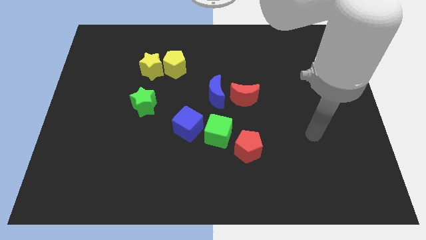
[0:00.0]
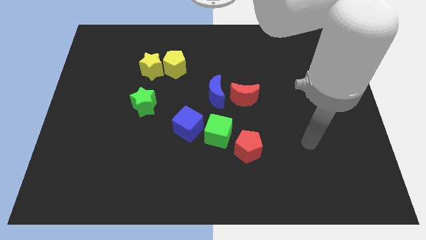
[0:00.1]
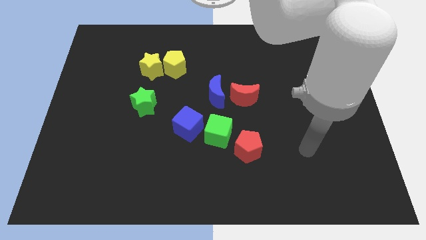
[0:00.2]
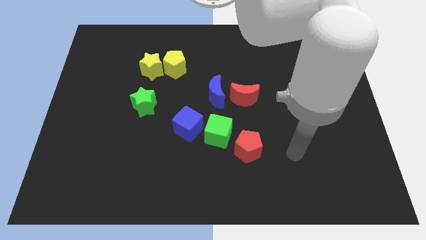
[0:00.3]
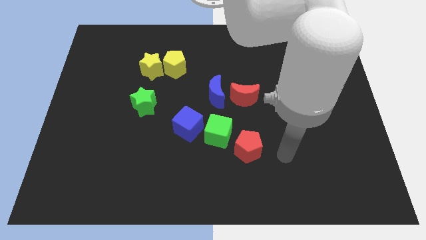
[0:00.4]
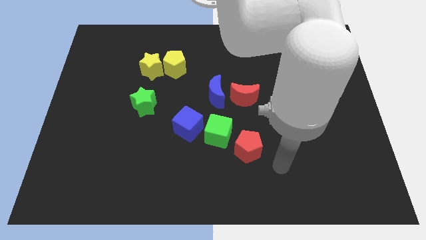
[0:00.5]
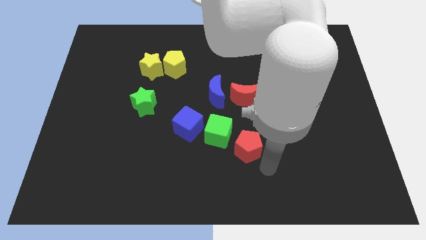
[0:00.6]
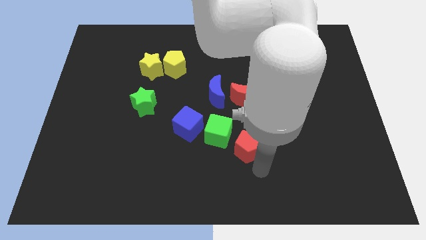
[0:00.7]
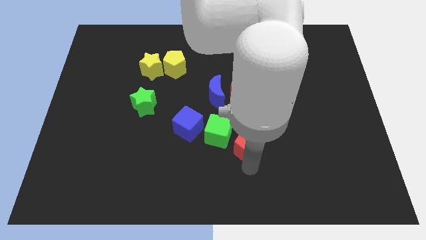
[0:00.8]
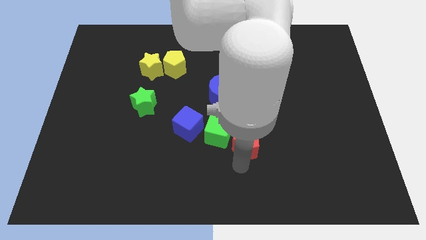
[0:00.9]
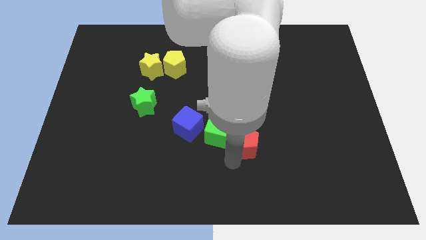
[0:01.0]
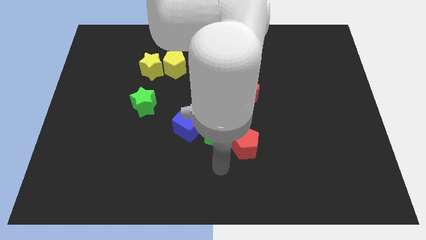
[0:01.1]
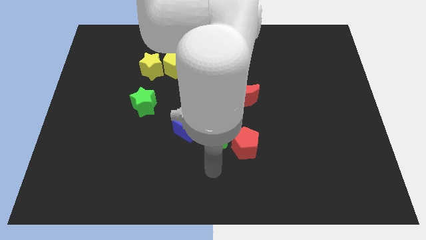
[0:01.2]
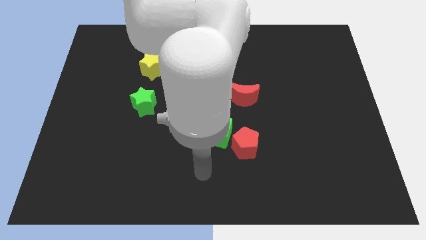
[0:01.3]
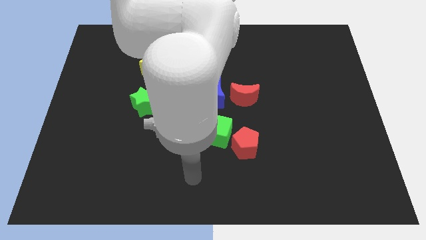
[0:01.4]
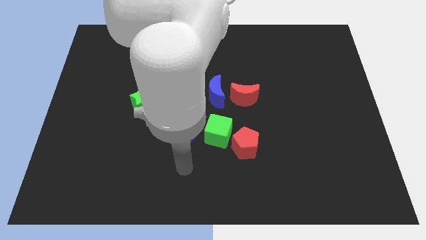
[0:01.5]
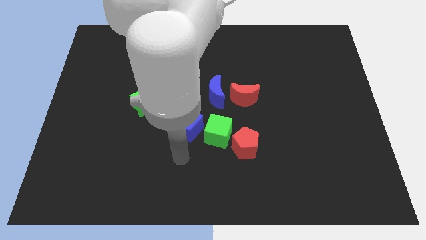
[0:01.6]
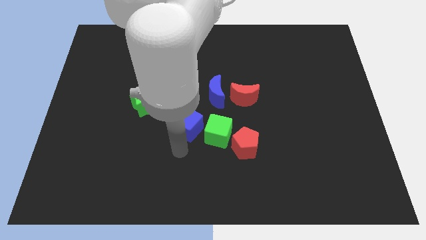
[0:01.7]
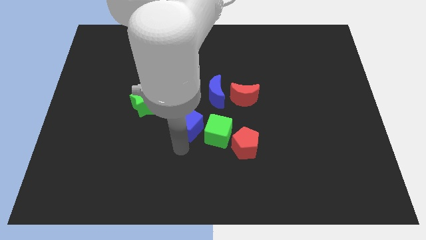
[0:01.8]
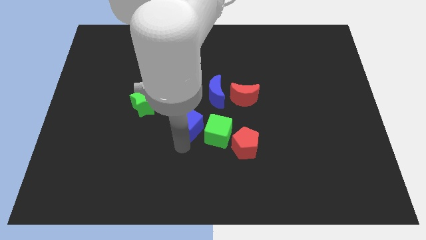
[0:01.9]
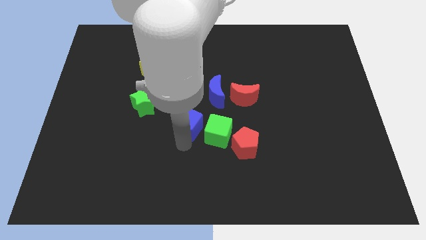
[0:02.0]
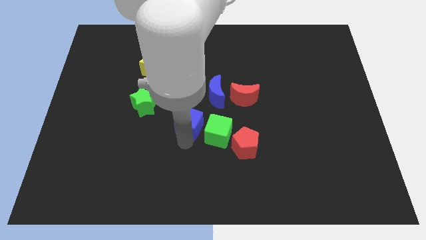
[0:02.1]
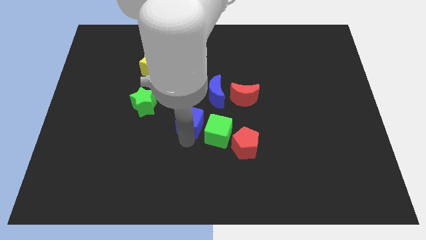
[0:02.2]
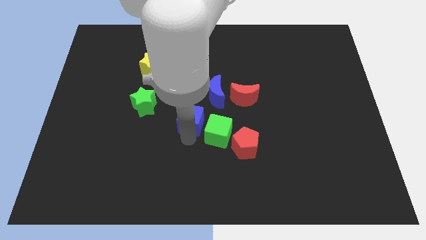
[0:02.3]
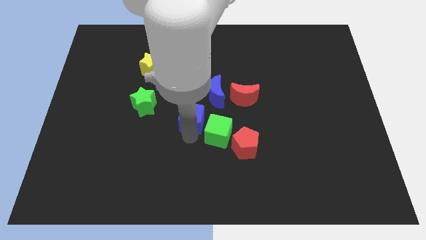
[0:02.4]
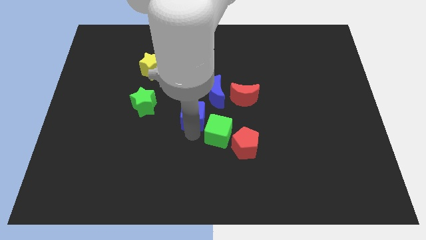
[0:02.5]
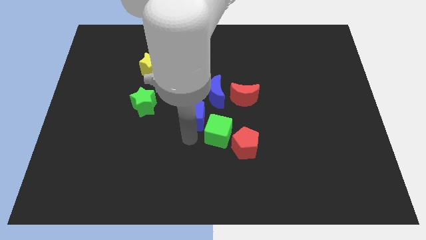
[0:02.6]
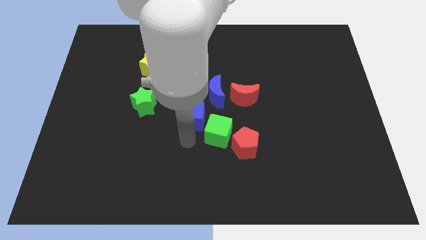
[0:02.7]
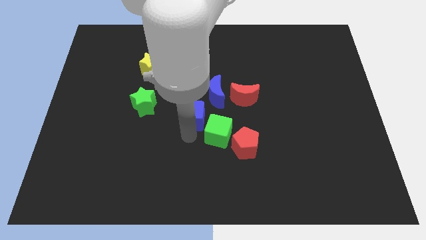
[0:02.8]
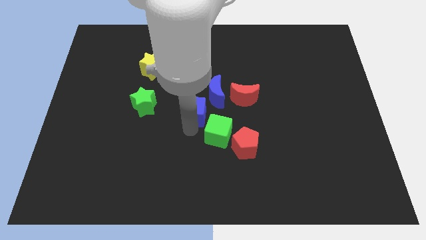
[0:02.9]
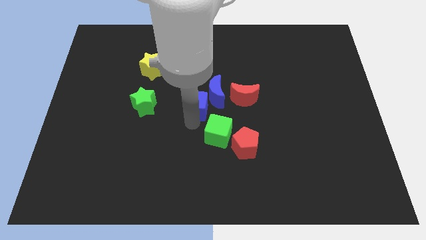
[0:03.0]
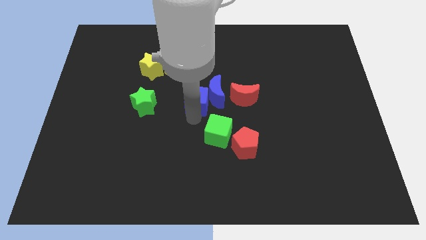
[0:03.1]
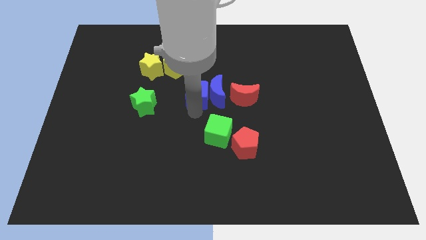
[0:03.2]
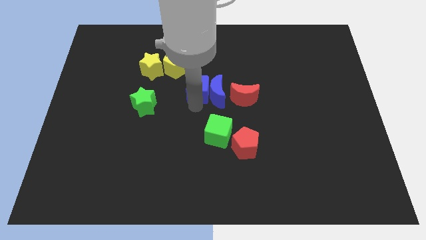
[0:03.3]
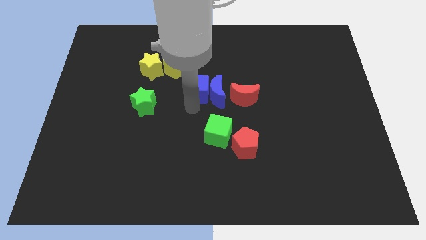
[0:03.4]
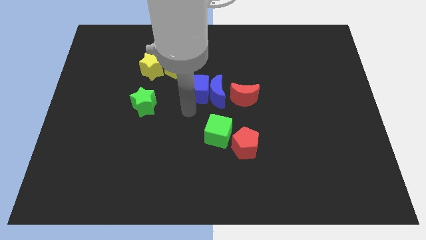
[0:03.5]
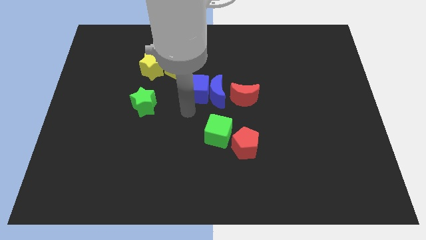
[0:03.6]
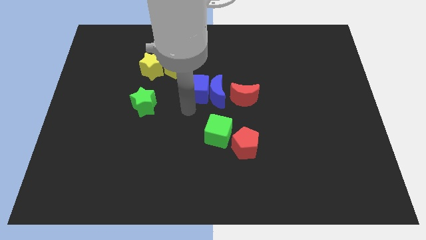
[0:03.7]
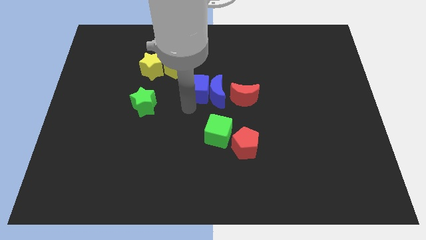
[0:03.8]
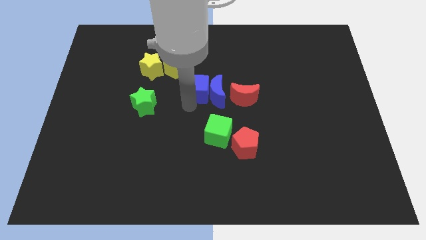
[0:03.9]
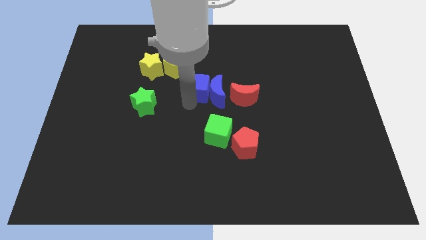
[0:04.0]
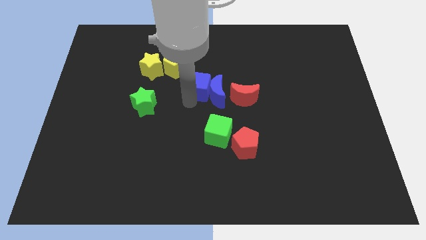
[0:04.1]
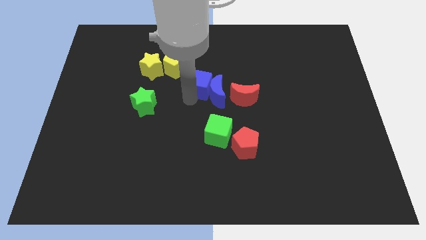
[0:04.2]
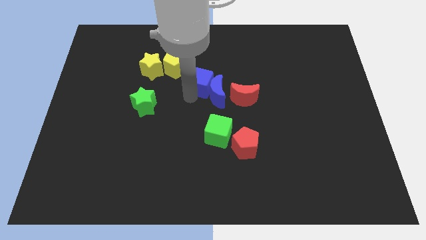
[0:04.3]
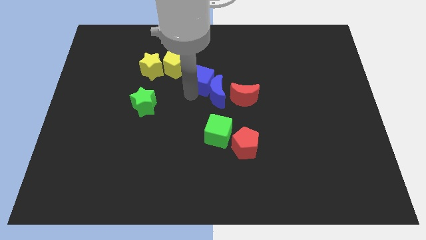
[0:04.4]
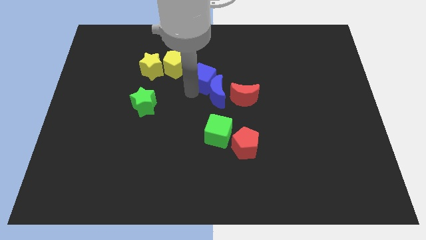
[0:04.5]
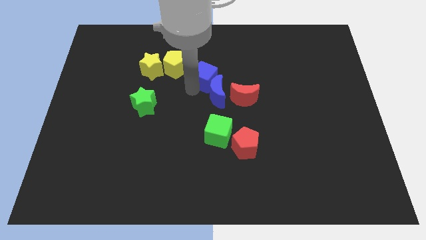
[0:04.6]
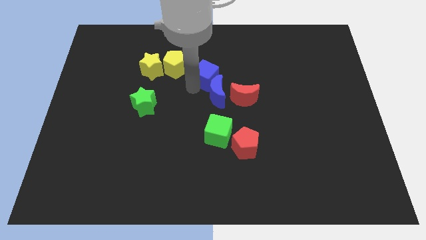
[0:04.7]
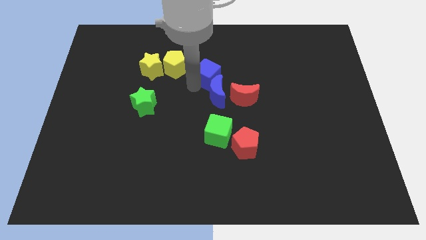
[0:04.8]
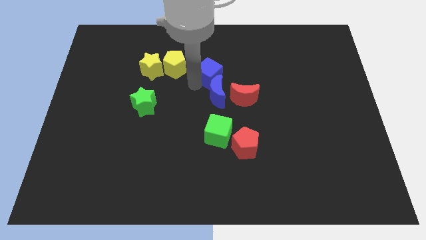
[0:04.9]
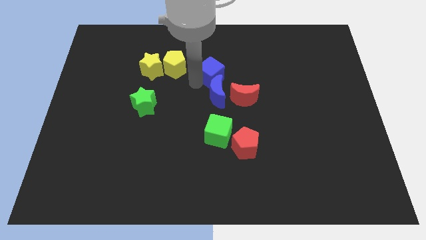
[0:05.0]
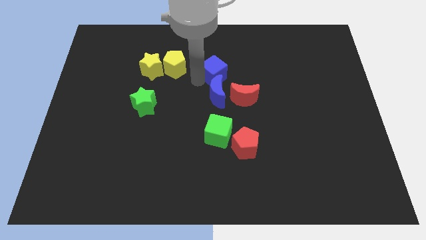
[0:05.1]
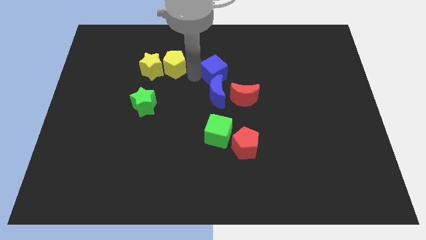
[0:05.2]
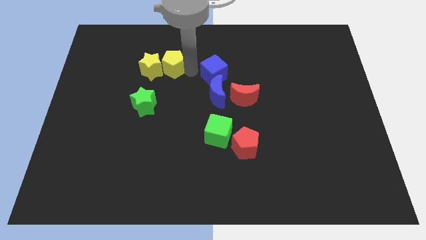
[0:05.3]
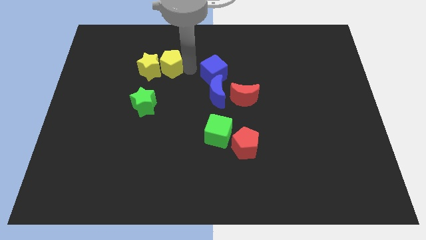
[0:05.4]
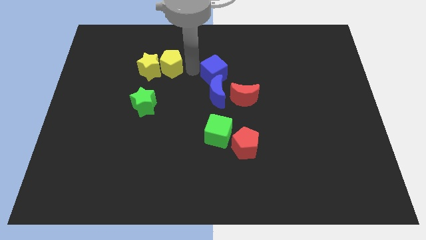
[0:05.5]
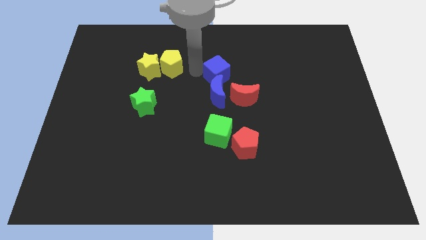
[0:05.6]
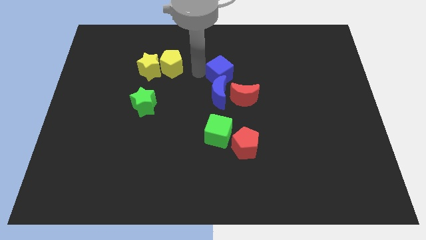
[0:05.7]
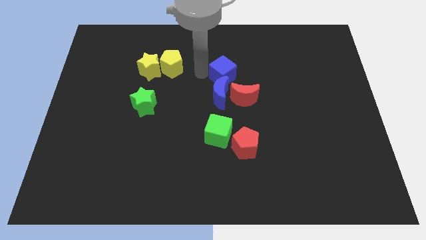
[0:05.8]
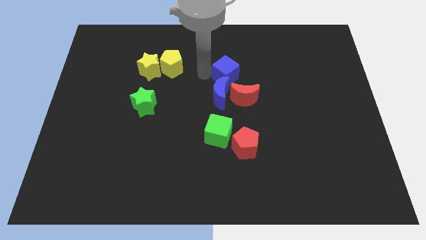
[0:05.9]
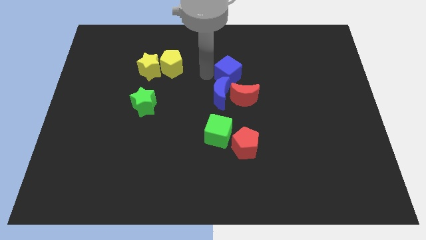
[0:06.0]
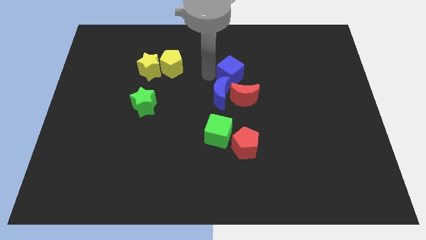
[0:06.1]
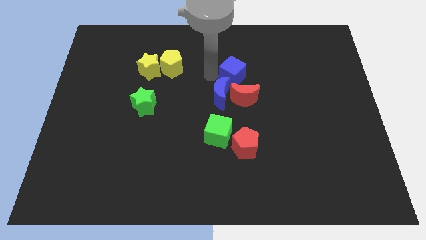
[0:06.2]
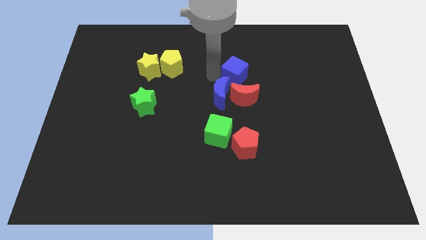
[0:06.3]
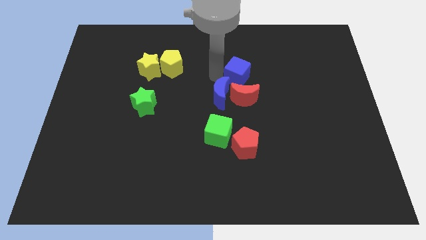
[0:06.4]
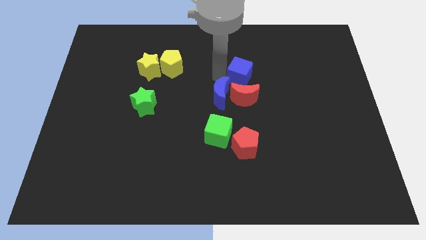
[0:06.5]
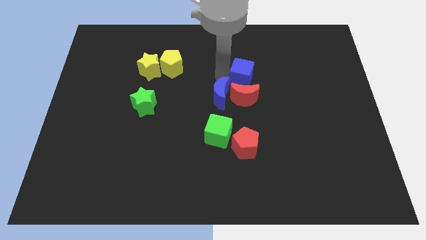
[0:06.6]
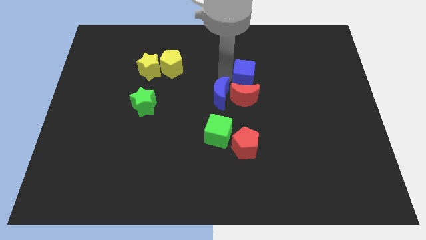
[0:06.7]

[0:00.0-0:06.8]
put the blue cube to the top right side of the red moon

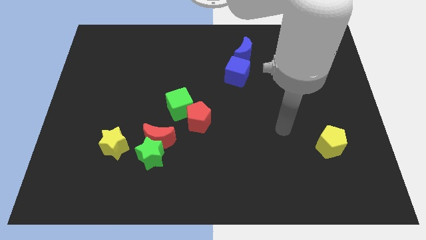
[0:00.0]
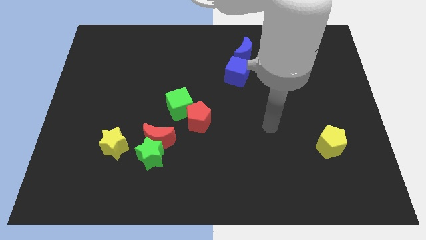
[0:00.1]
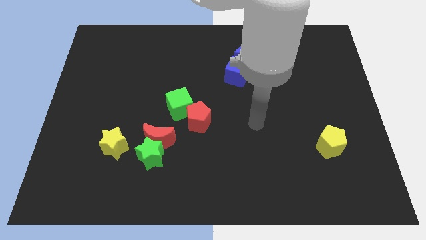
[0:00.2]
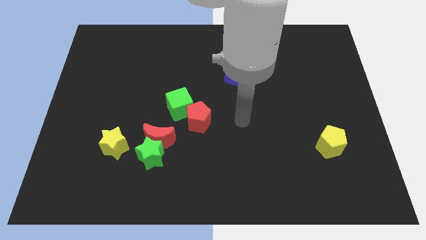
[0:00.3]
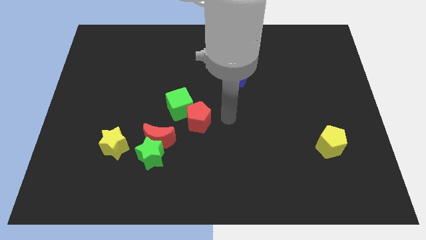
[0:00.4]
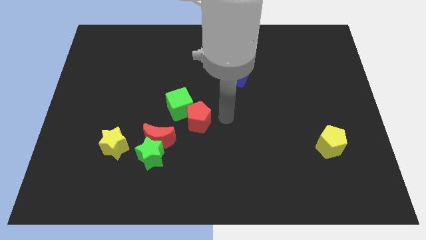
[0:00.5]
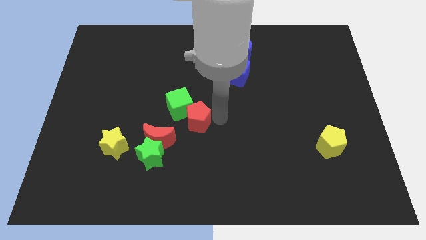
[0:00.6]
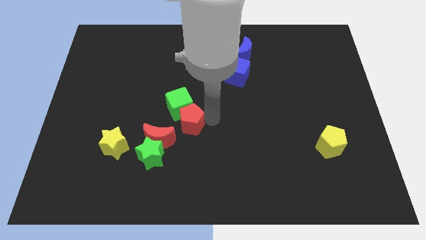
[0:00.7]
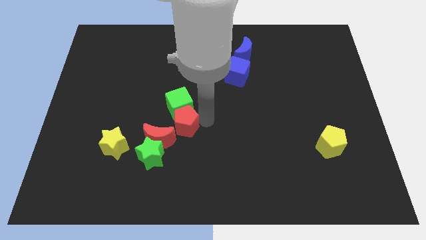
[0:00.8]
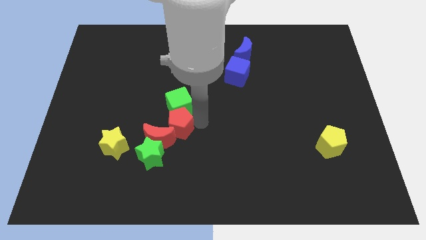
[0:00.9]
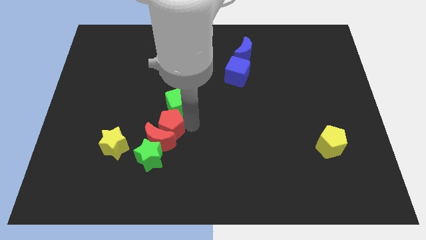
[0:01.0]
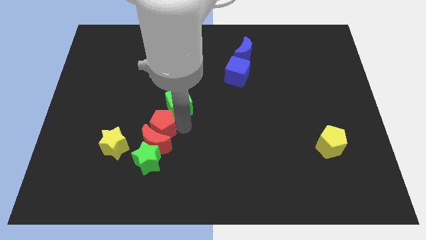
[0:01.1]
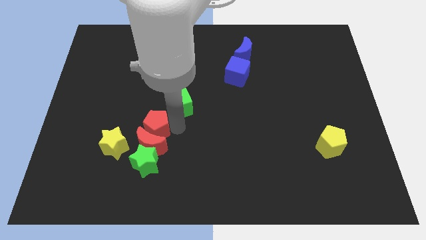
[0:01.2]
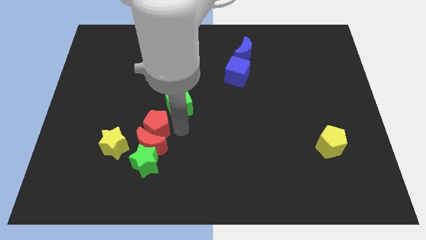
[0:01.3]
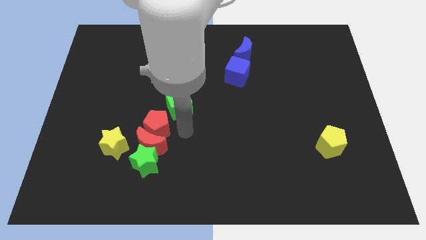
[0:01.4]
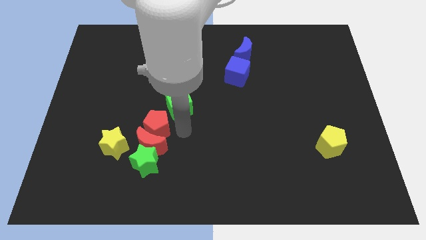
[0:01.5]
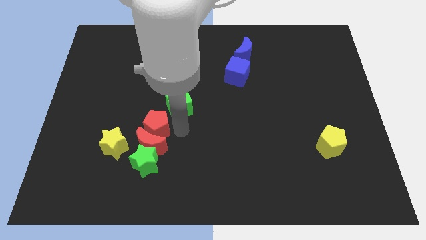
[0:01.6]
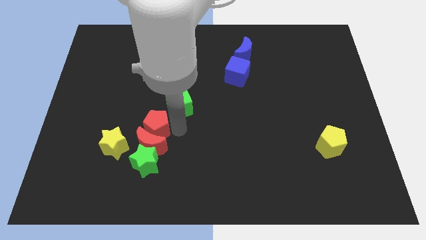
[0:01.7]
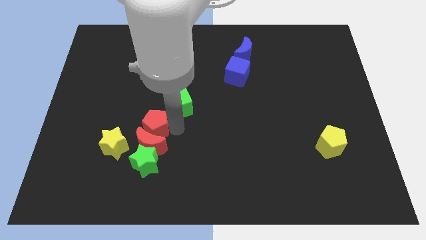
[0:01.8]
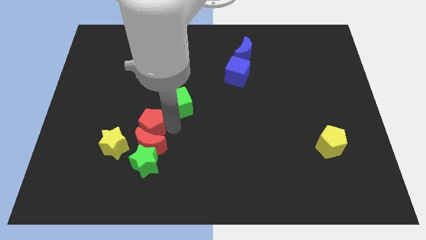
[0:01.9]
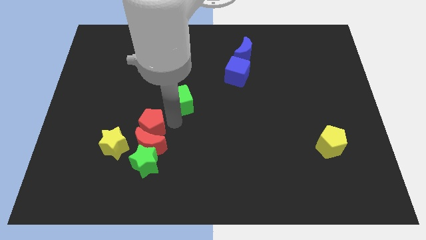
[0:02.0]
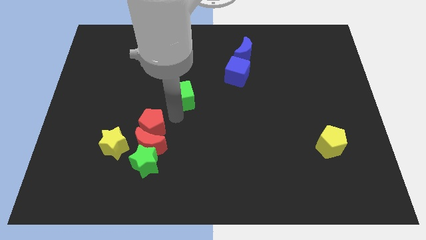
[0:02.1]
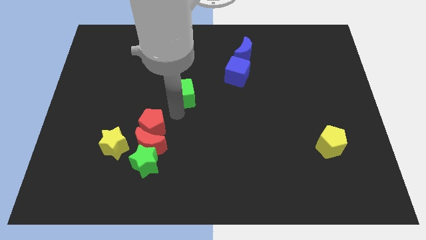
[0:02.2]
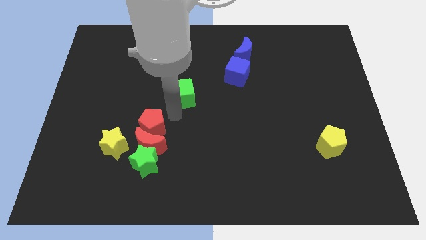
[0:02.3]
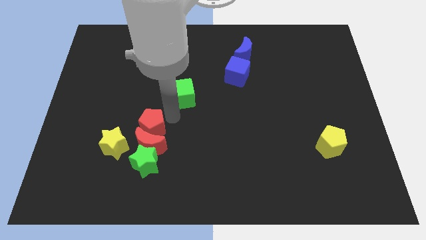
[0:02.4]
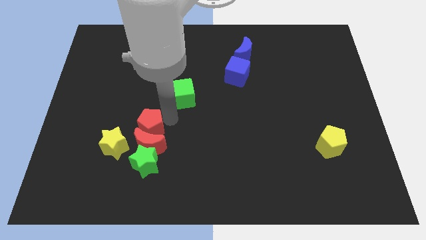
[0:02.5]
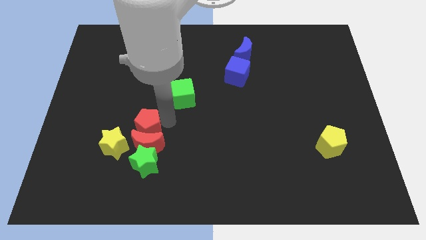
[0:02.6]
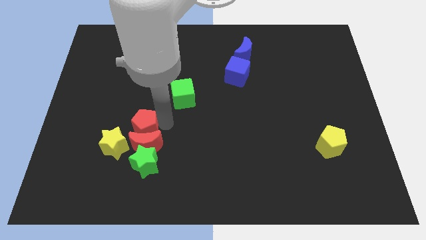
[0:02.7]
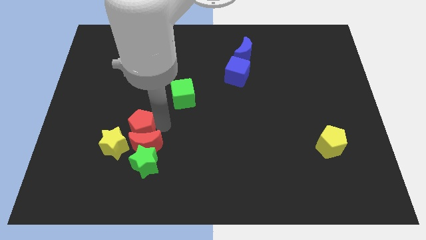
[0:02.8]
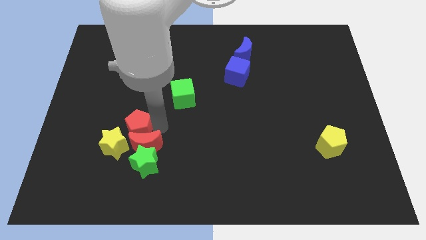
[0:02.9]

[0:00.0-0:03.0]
put the red pentagon diagonally up and to the left of the green star
